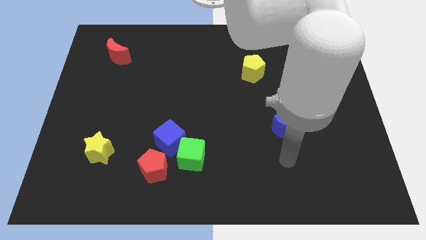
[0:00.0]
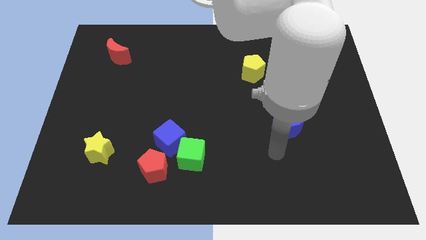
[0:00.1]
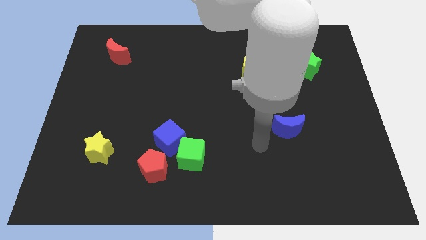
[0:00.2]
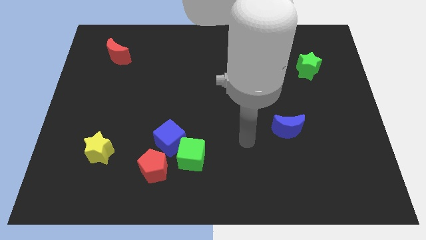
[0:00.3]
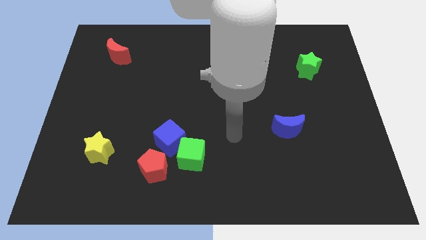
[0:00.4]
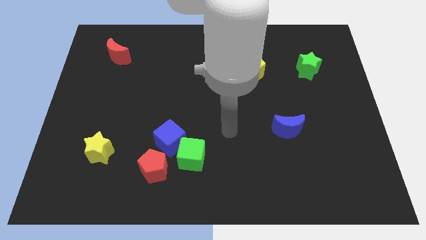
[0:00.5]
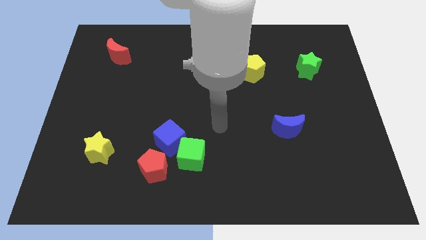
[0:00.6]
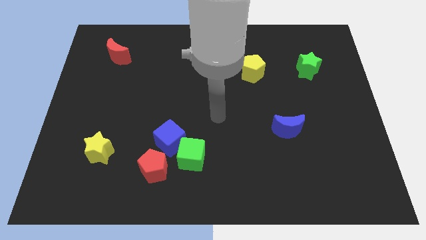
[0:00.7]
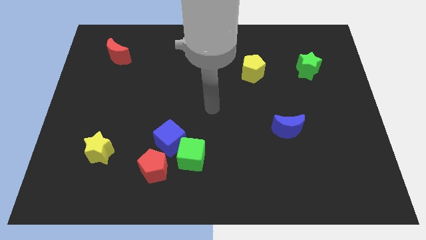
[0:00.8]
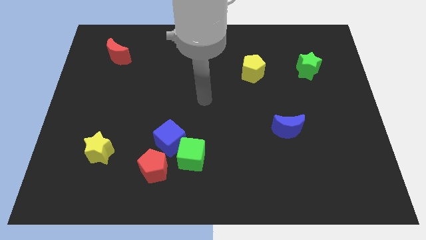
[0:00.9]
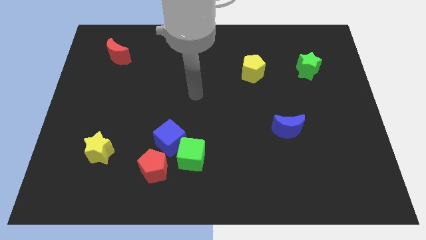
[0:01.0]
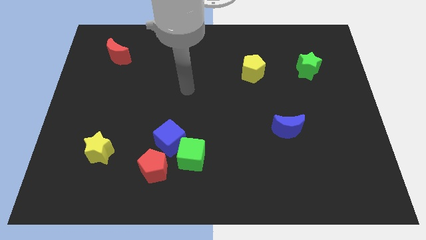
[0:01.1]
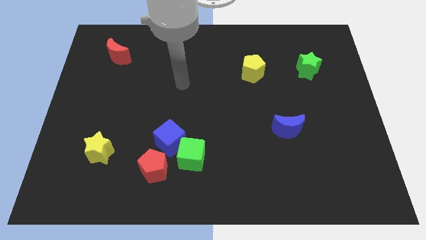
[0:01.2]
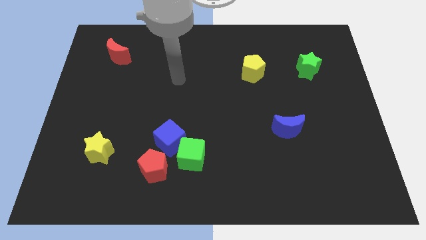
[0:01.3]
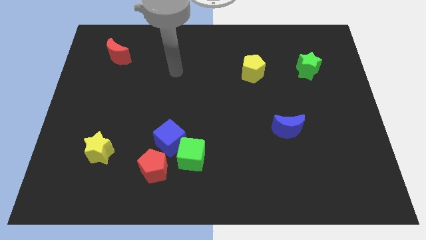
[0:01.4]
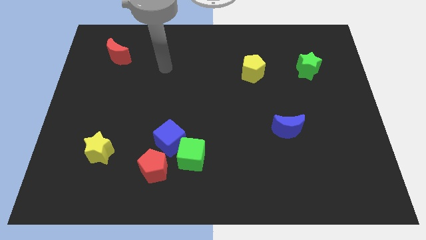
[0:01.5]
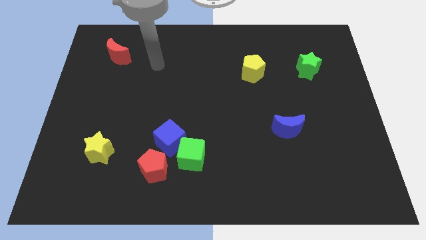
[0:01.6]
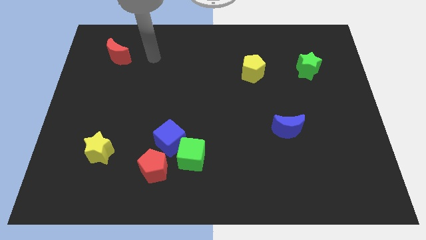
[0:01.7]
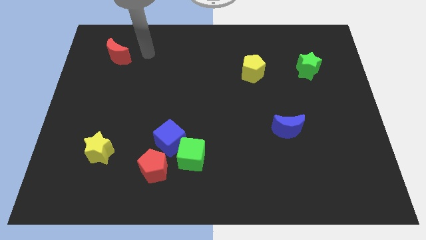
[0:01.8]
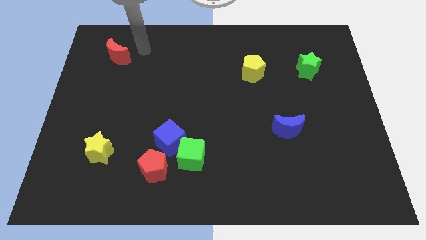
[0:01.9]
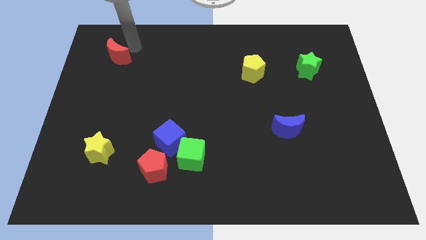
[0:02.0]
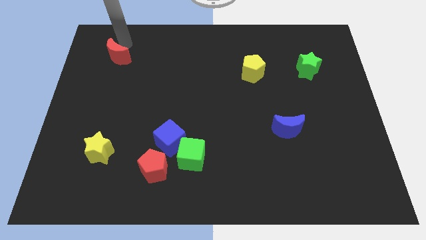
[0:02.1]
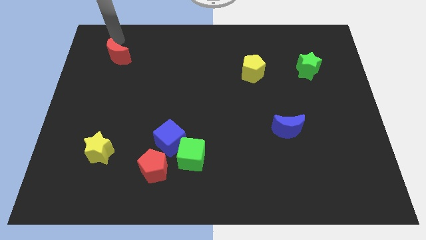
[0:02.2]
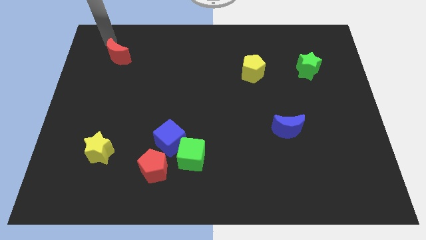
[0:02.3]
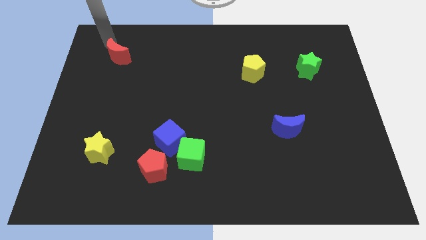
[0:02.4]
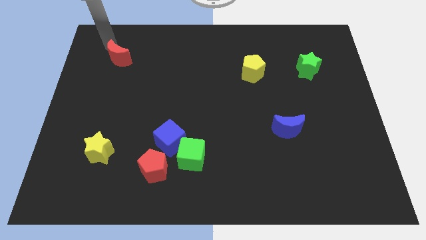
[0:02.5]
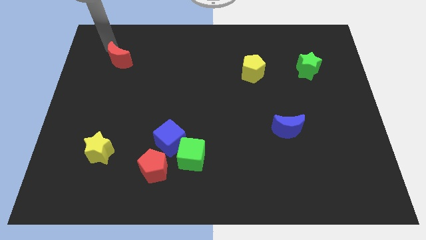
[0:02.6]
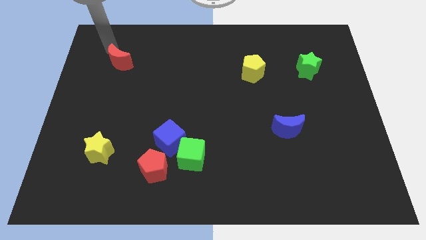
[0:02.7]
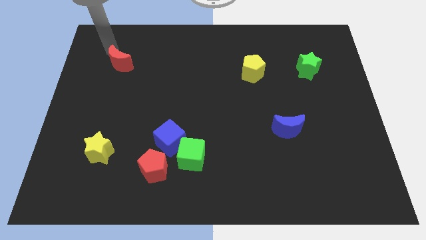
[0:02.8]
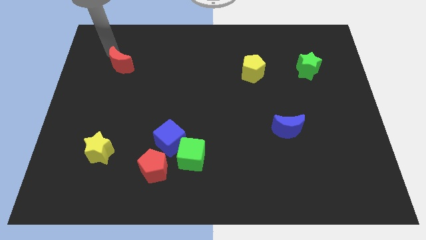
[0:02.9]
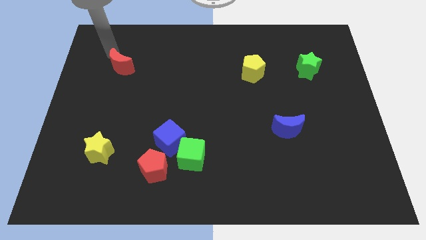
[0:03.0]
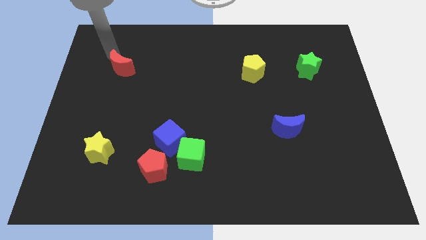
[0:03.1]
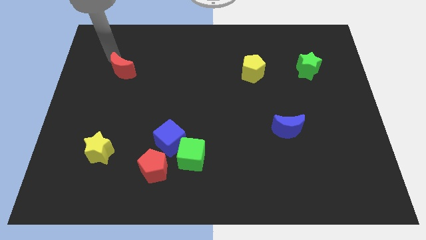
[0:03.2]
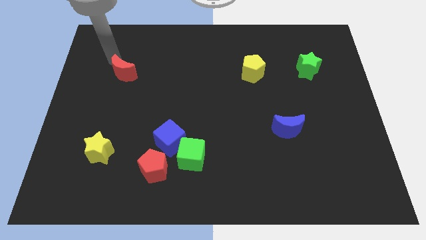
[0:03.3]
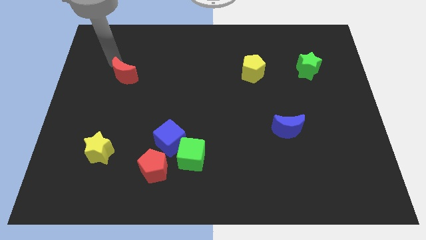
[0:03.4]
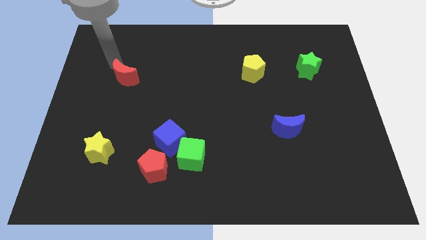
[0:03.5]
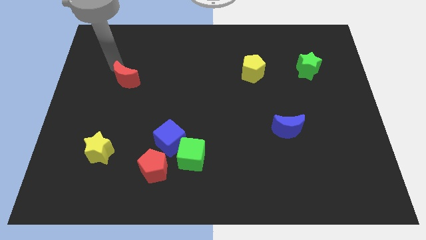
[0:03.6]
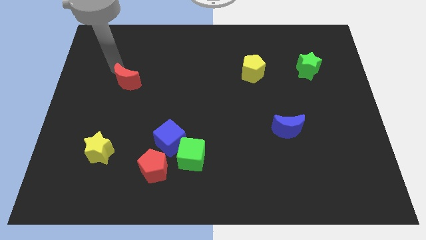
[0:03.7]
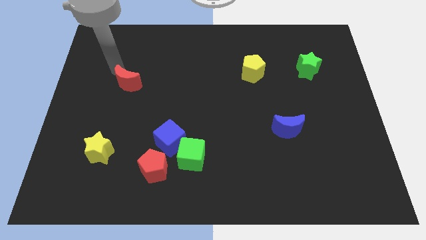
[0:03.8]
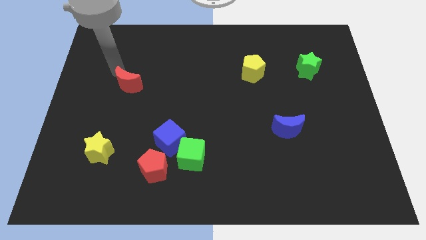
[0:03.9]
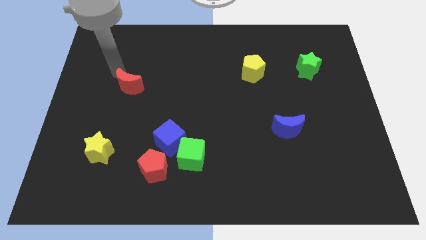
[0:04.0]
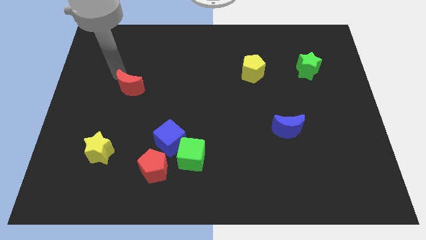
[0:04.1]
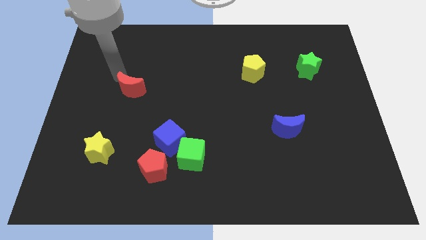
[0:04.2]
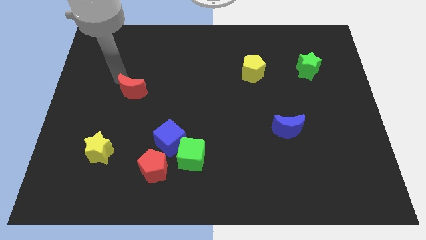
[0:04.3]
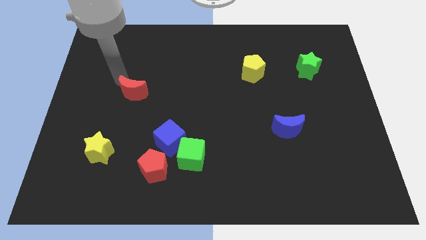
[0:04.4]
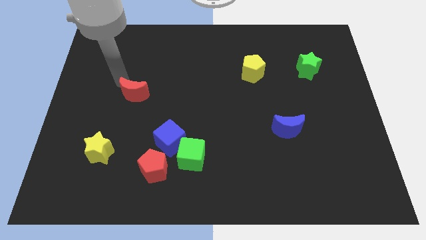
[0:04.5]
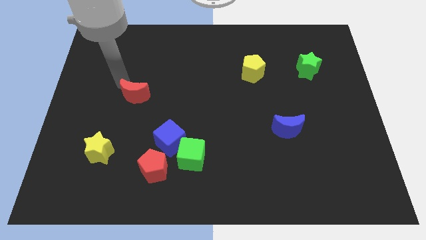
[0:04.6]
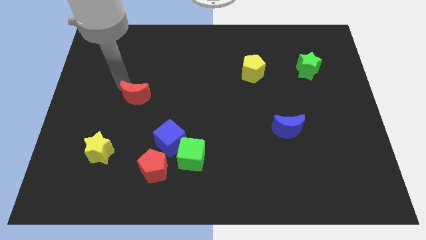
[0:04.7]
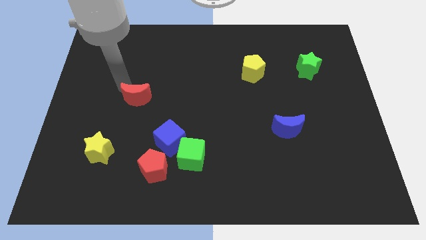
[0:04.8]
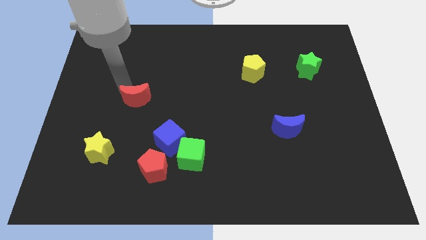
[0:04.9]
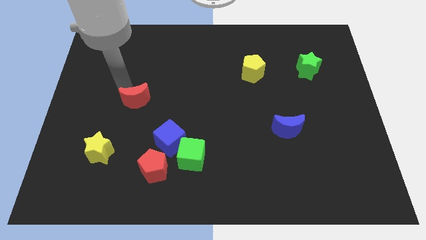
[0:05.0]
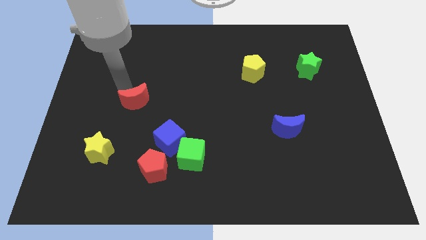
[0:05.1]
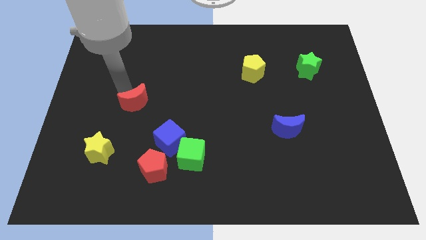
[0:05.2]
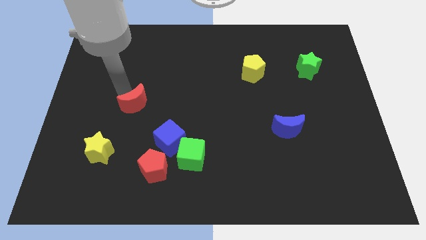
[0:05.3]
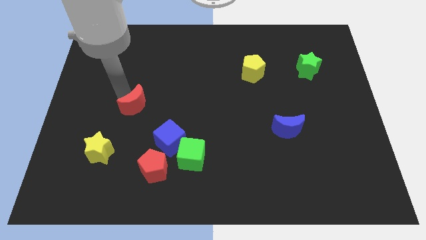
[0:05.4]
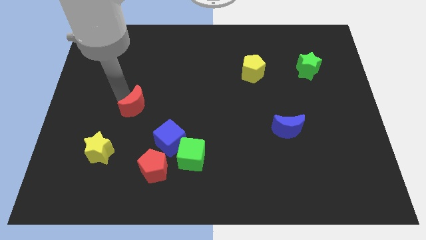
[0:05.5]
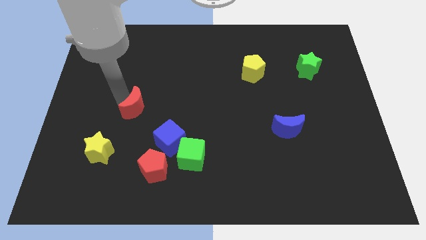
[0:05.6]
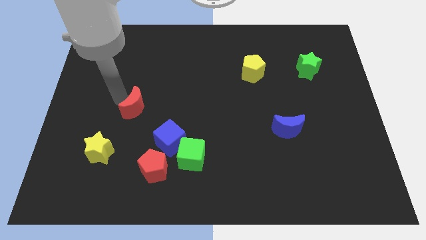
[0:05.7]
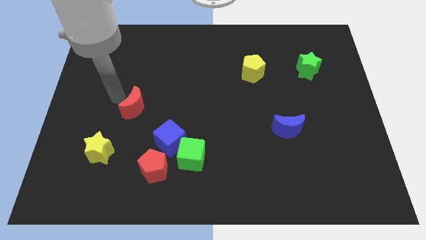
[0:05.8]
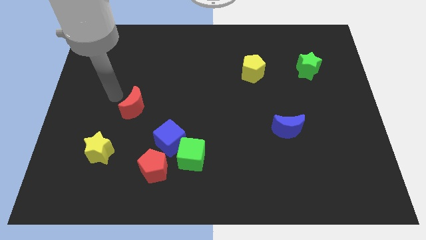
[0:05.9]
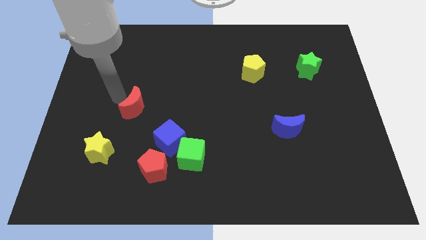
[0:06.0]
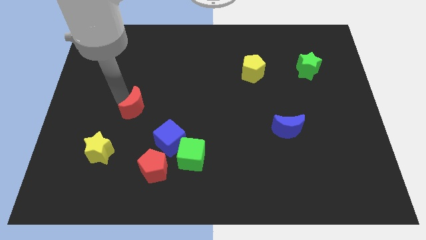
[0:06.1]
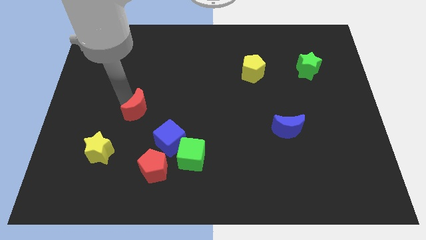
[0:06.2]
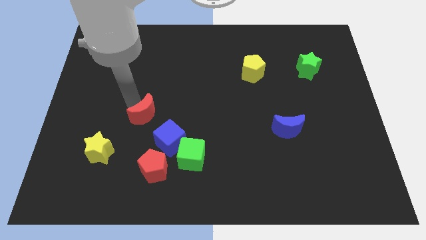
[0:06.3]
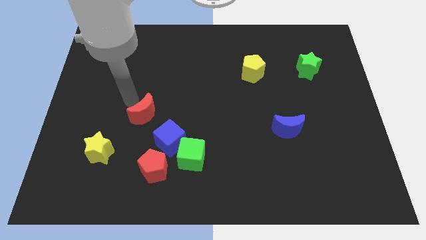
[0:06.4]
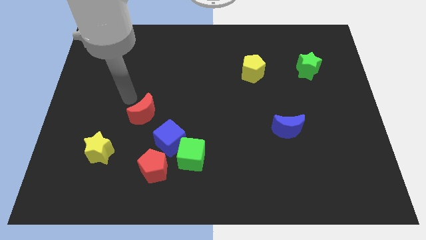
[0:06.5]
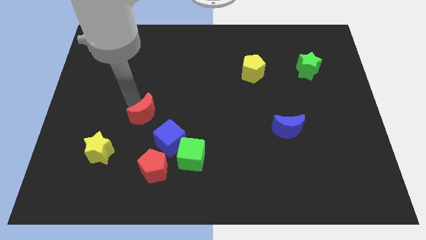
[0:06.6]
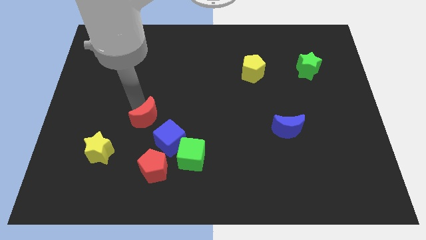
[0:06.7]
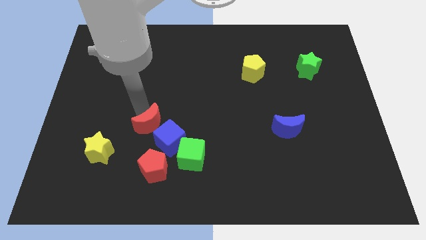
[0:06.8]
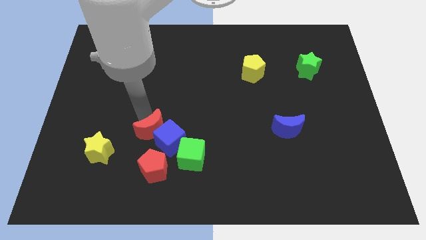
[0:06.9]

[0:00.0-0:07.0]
move the red moon diagonally up and to the left of the green cube

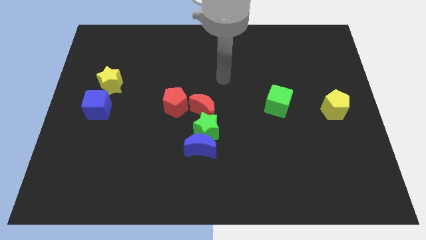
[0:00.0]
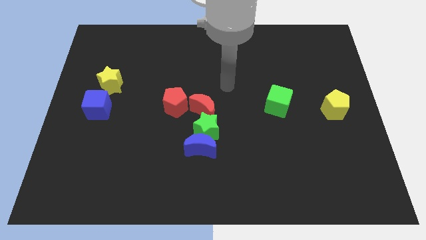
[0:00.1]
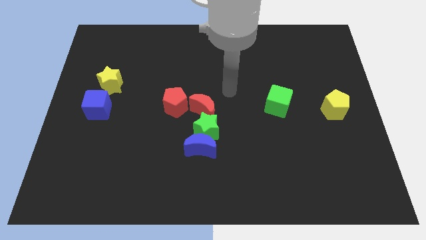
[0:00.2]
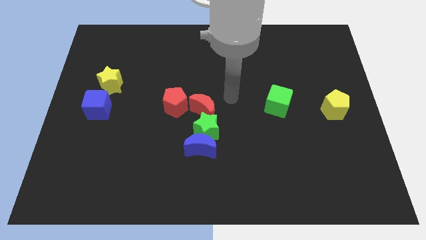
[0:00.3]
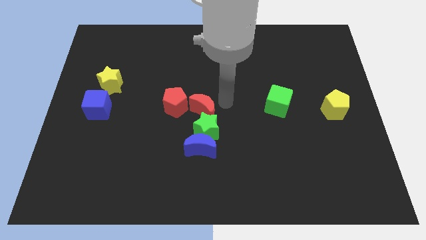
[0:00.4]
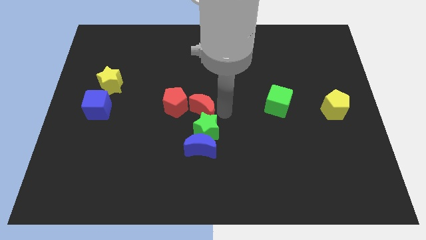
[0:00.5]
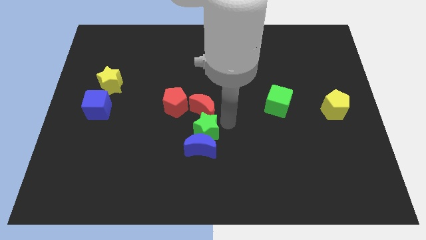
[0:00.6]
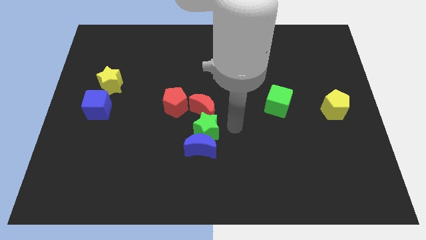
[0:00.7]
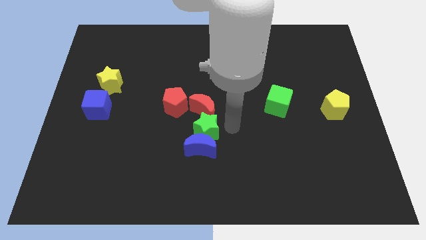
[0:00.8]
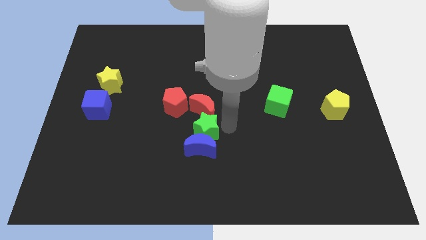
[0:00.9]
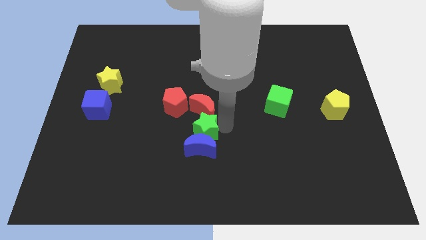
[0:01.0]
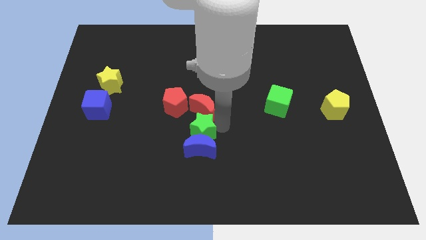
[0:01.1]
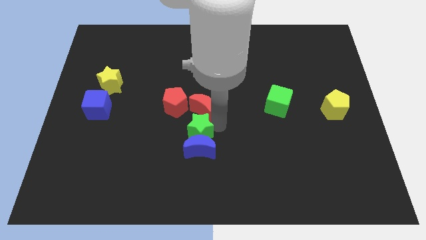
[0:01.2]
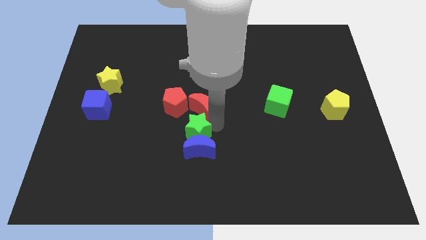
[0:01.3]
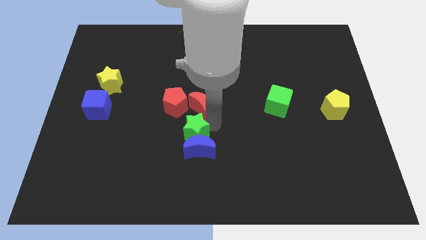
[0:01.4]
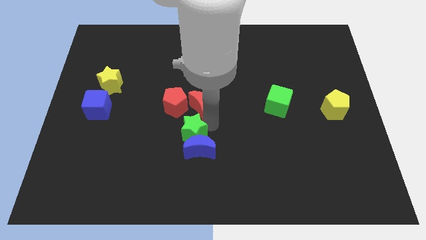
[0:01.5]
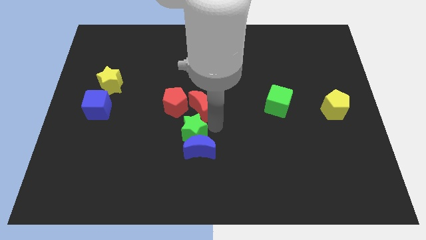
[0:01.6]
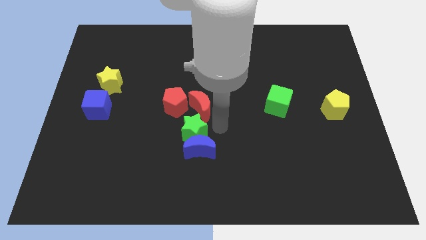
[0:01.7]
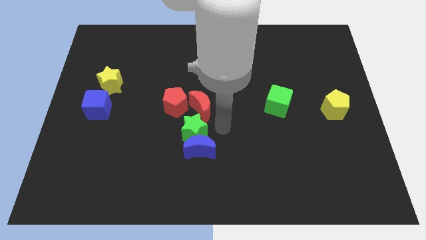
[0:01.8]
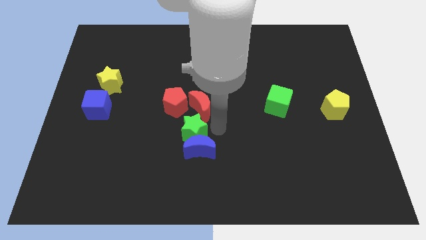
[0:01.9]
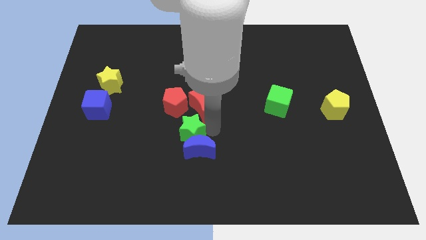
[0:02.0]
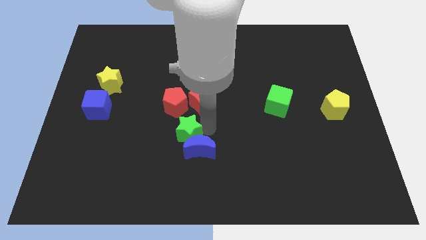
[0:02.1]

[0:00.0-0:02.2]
move the green star to the left side of the blue moon
